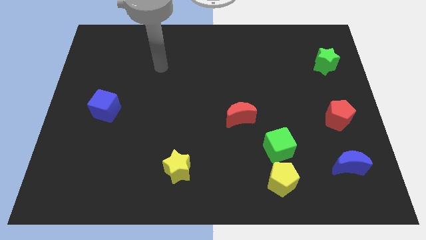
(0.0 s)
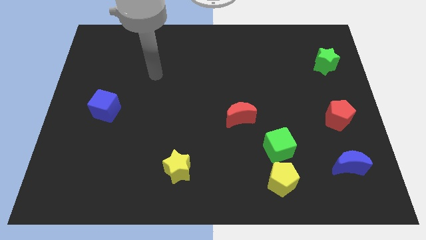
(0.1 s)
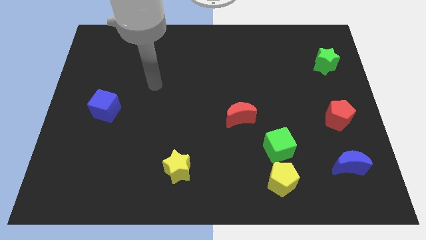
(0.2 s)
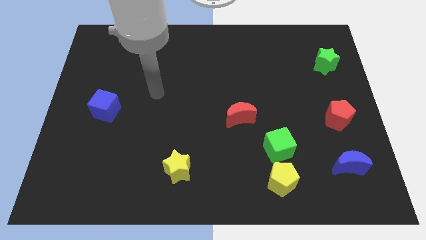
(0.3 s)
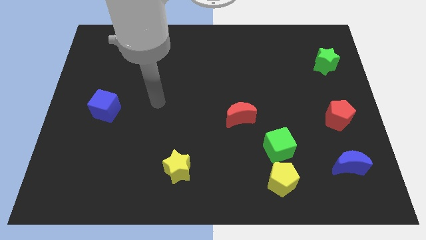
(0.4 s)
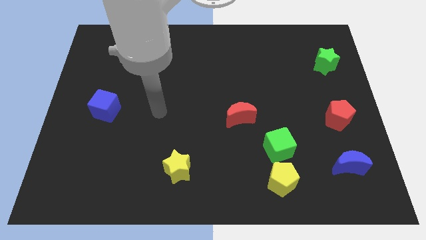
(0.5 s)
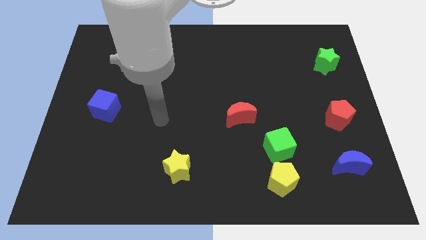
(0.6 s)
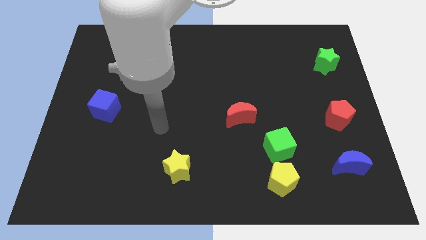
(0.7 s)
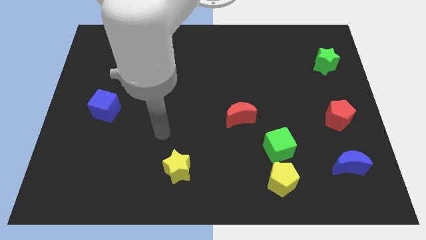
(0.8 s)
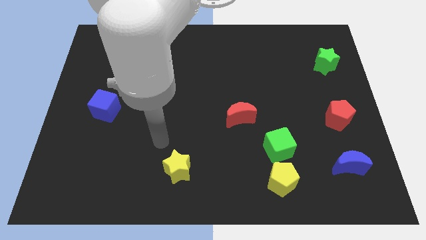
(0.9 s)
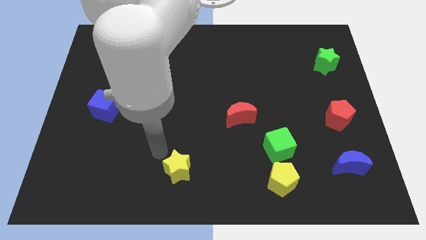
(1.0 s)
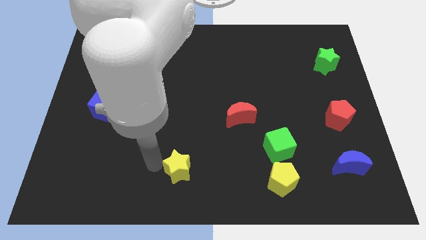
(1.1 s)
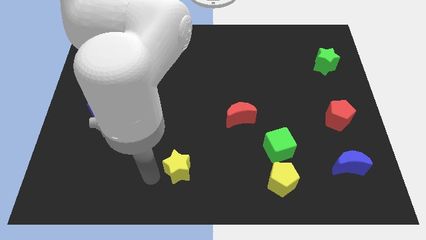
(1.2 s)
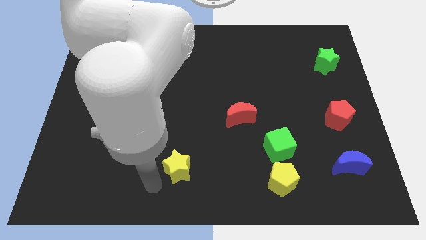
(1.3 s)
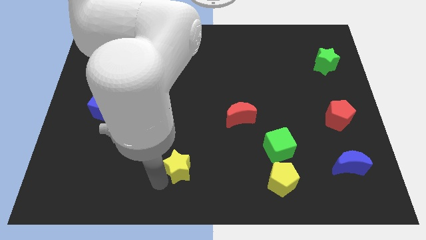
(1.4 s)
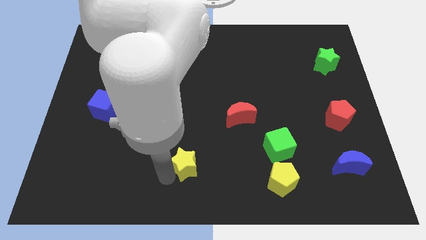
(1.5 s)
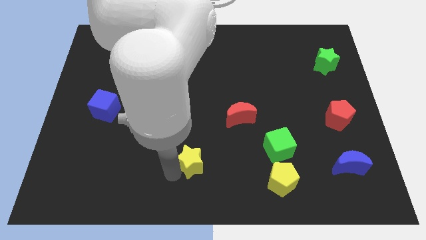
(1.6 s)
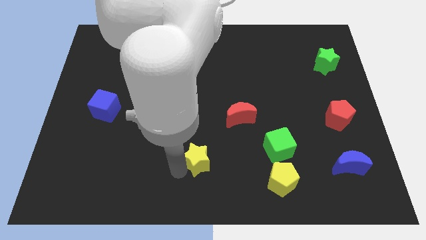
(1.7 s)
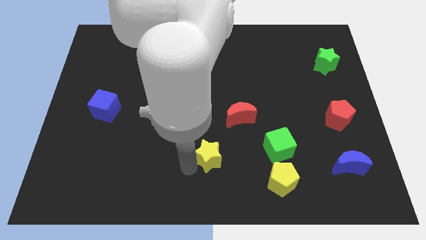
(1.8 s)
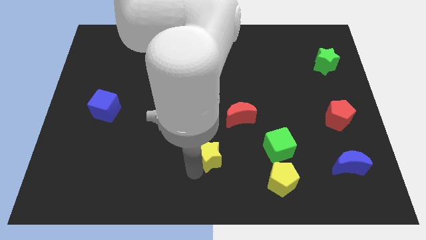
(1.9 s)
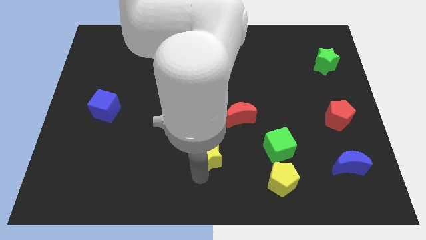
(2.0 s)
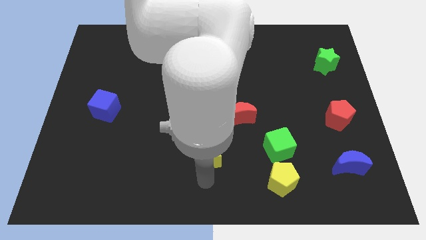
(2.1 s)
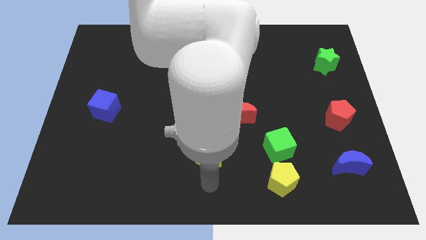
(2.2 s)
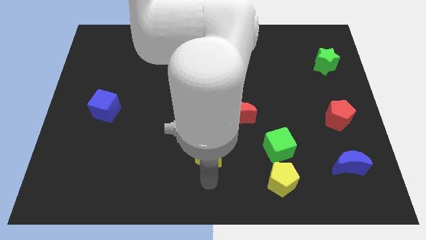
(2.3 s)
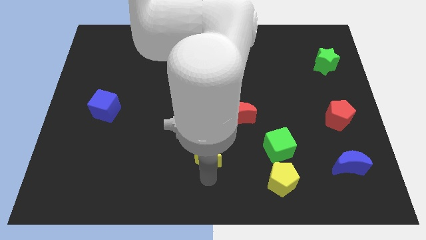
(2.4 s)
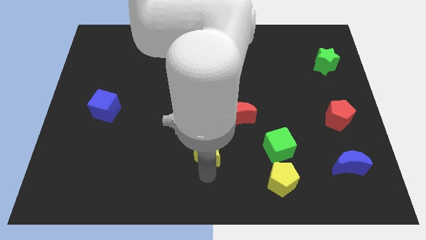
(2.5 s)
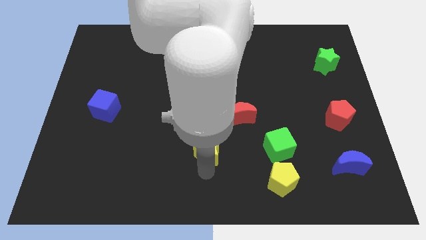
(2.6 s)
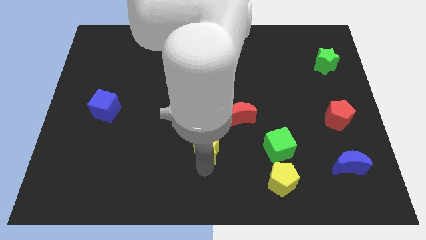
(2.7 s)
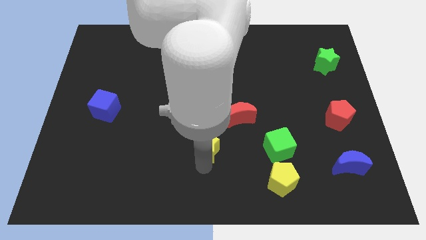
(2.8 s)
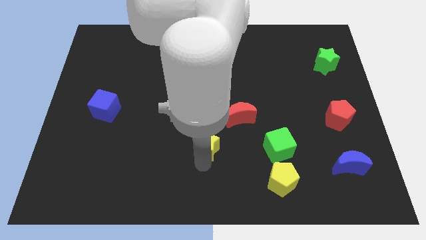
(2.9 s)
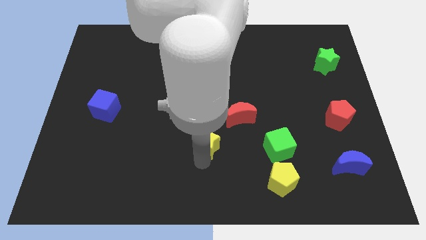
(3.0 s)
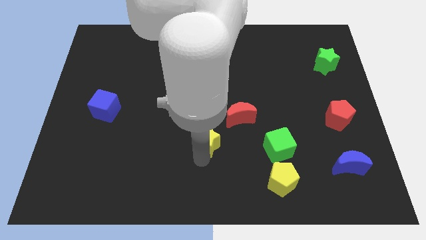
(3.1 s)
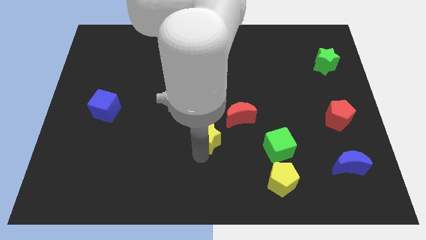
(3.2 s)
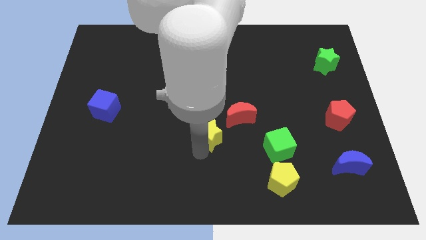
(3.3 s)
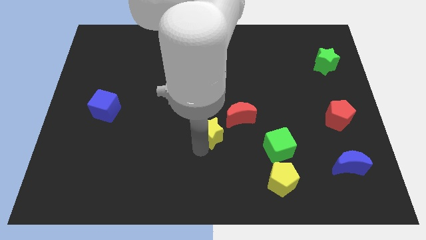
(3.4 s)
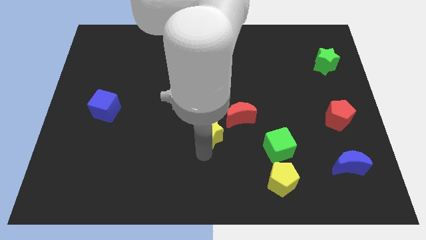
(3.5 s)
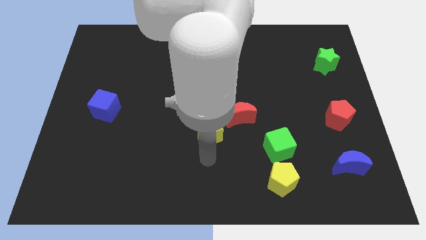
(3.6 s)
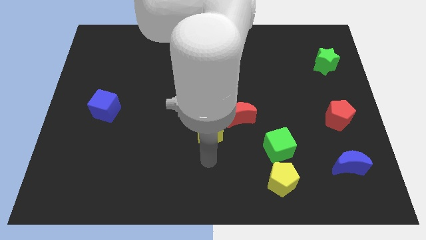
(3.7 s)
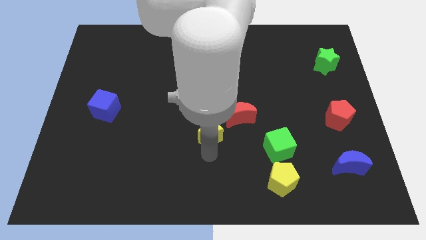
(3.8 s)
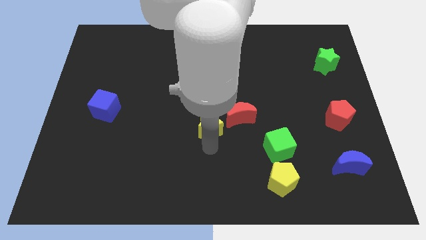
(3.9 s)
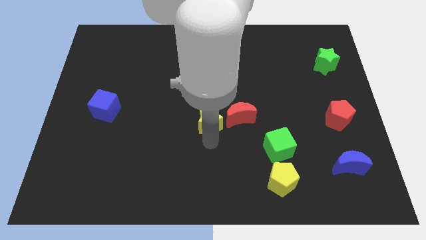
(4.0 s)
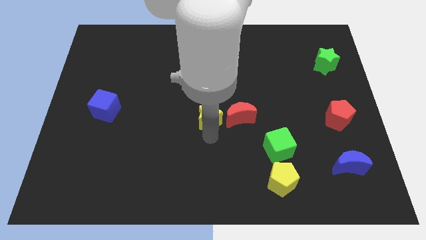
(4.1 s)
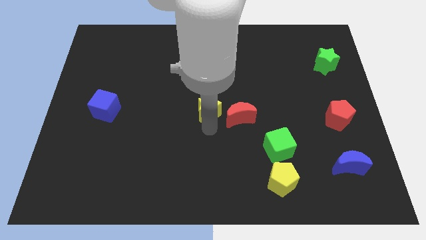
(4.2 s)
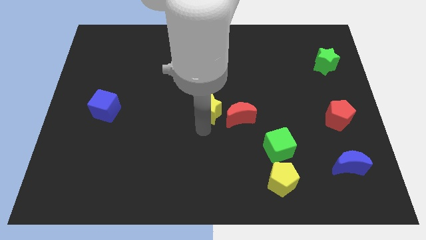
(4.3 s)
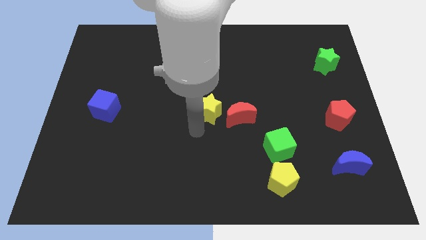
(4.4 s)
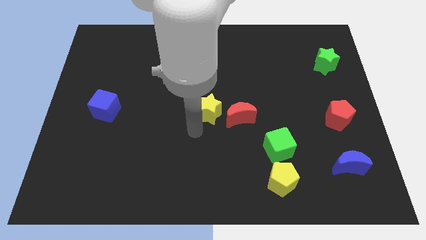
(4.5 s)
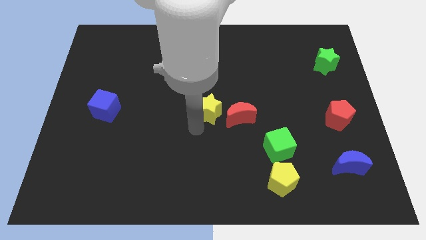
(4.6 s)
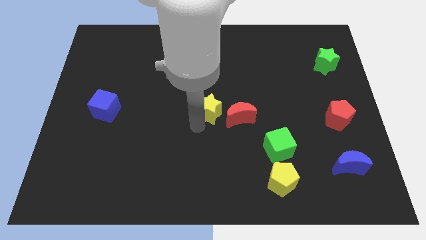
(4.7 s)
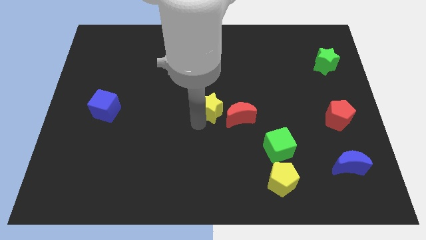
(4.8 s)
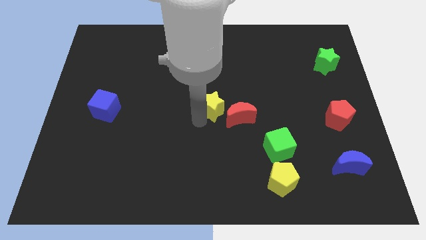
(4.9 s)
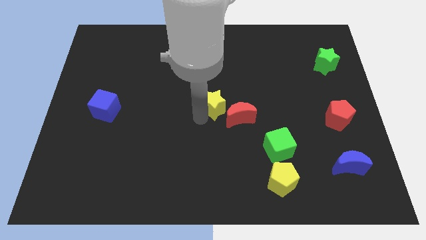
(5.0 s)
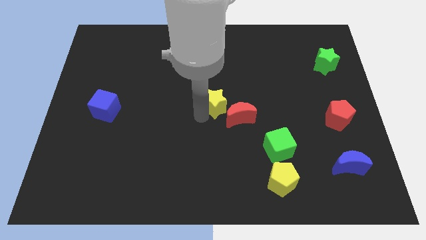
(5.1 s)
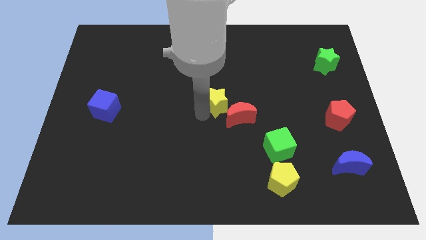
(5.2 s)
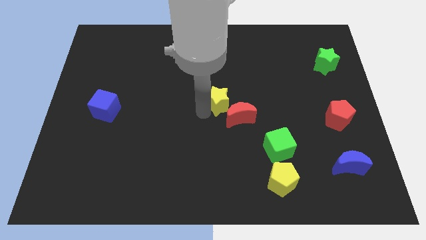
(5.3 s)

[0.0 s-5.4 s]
move the yellow star to the top of the red moon

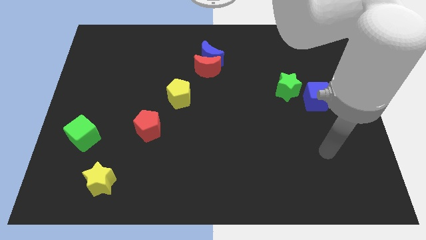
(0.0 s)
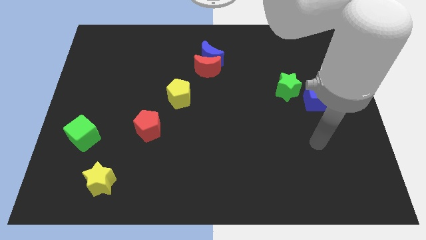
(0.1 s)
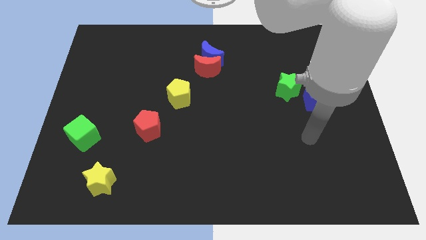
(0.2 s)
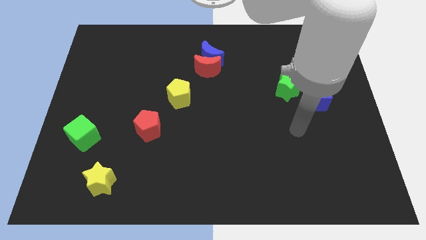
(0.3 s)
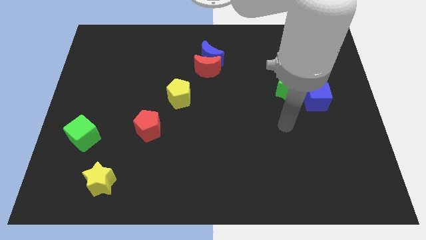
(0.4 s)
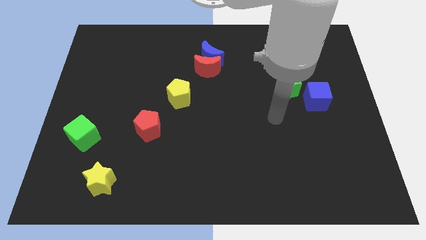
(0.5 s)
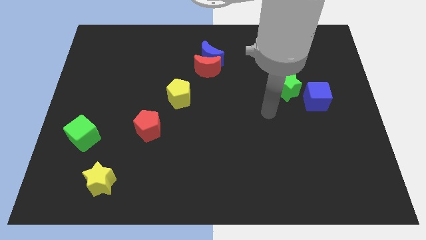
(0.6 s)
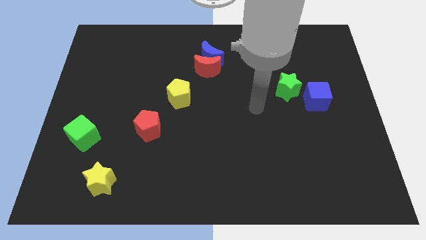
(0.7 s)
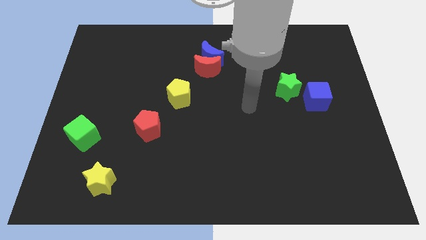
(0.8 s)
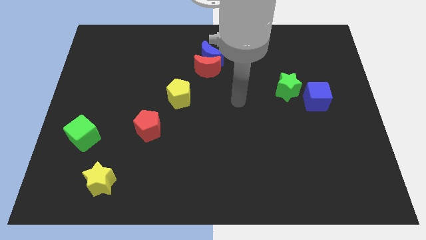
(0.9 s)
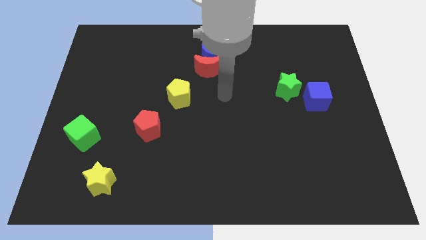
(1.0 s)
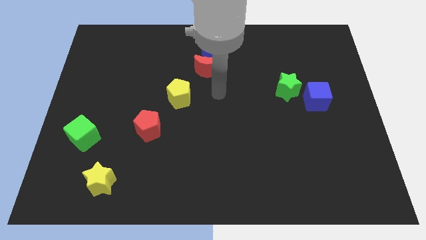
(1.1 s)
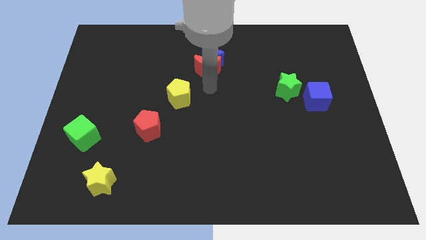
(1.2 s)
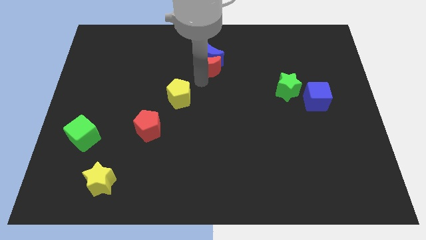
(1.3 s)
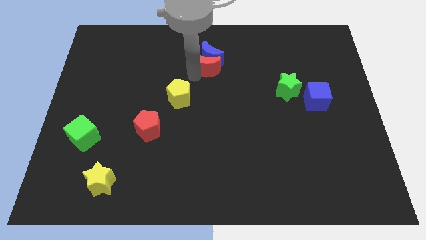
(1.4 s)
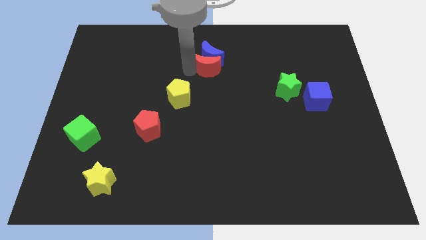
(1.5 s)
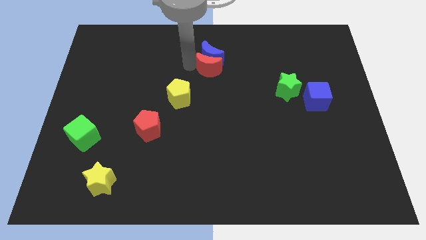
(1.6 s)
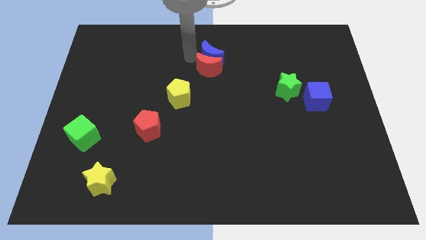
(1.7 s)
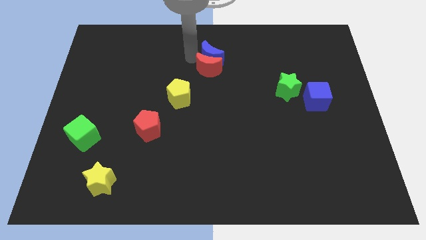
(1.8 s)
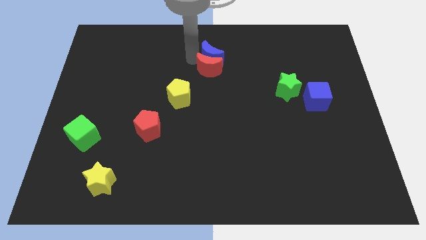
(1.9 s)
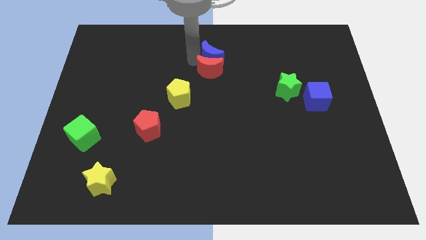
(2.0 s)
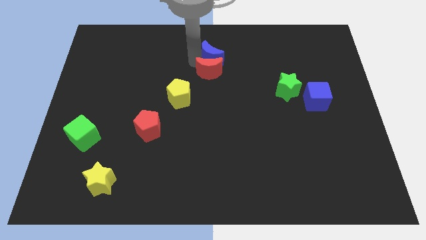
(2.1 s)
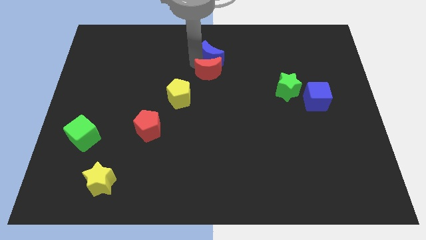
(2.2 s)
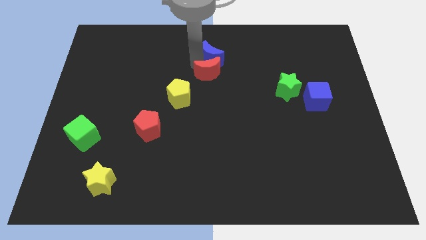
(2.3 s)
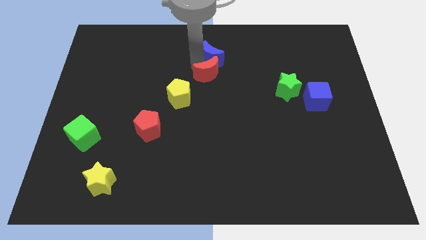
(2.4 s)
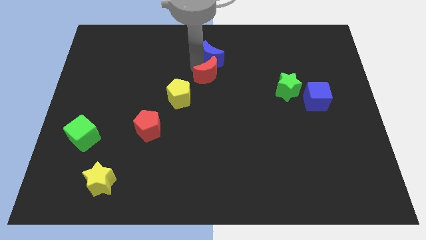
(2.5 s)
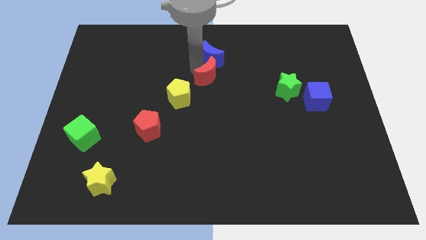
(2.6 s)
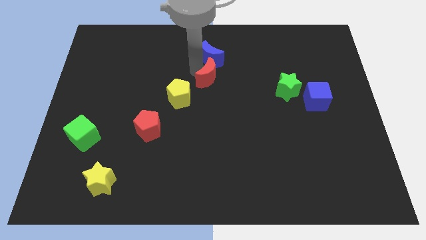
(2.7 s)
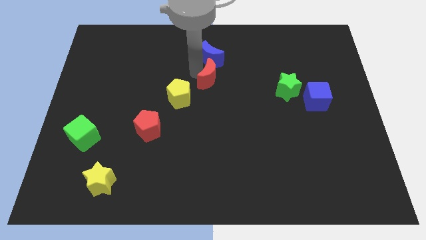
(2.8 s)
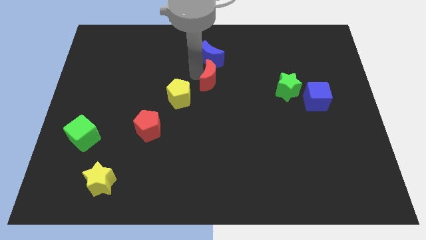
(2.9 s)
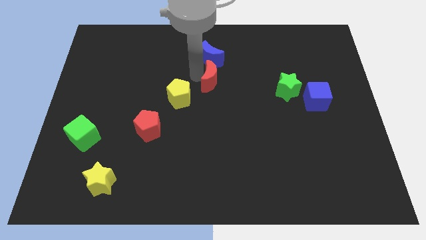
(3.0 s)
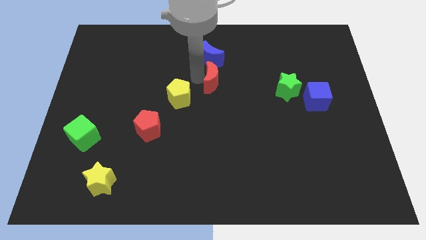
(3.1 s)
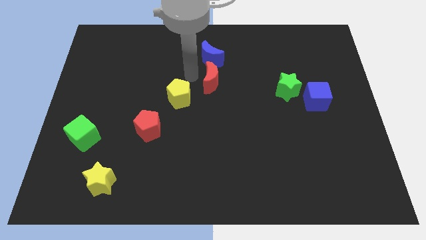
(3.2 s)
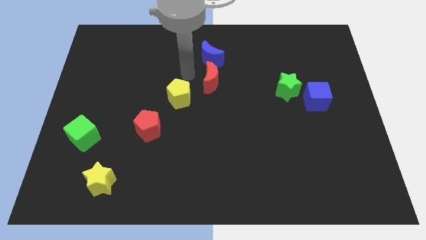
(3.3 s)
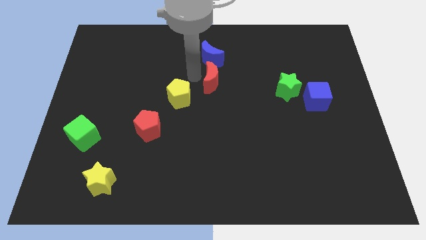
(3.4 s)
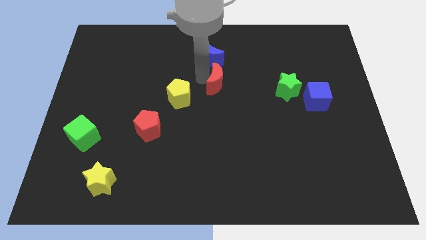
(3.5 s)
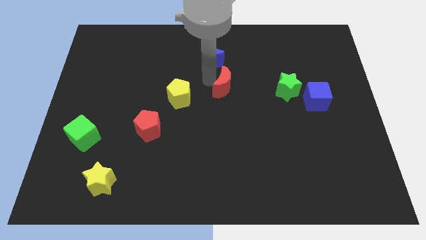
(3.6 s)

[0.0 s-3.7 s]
move the red moon to the left of the green star
